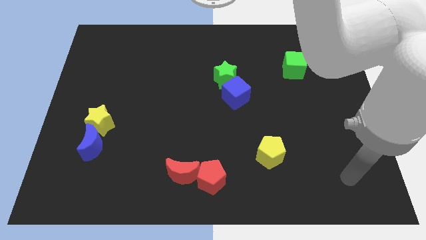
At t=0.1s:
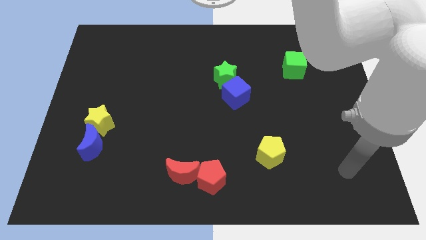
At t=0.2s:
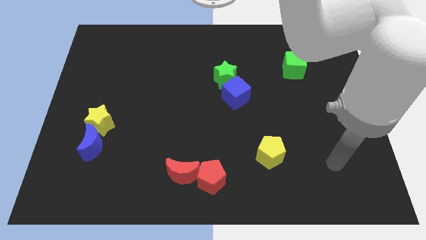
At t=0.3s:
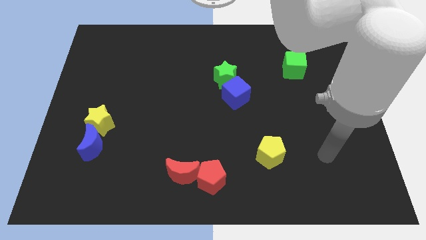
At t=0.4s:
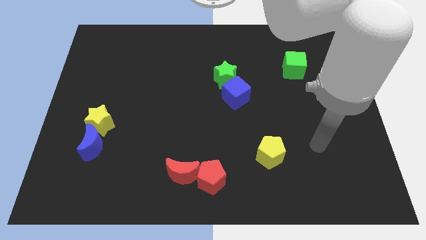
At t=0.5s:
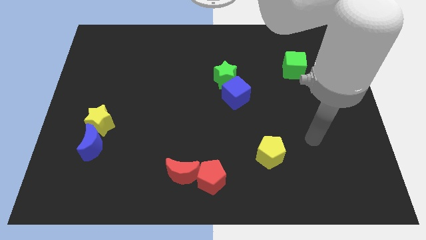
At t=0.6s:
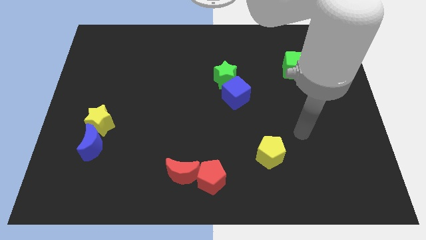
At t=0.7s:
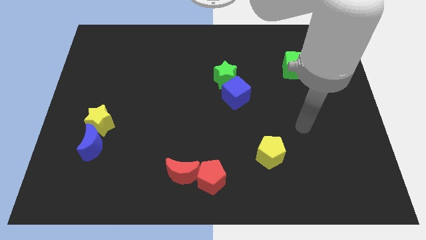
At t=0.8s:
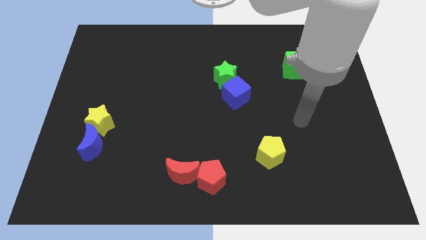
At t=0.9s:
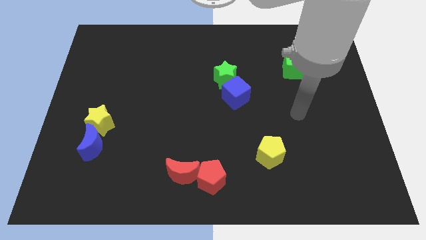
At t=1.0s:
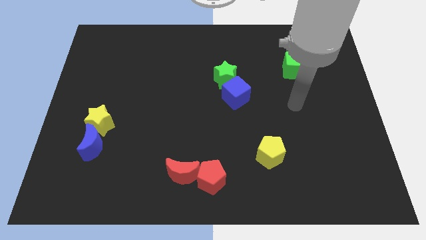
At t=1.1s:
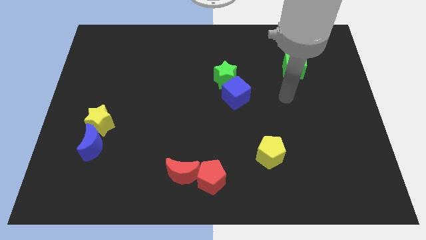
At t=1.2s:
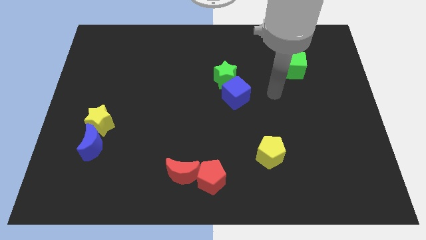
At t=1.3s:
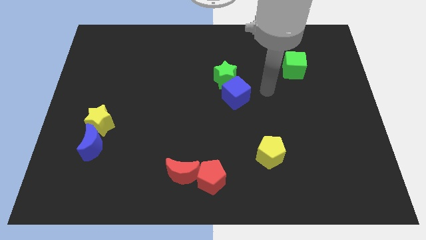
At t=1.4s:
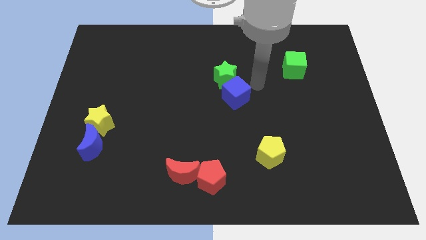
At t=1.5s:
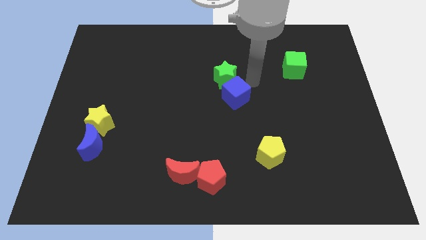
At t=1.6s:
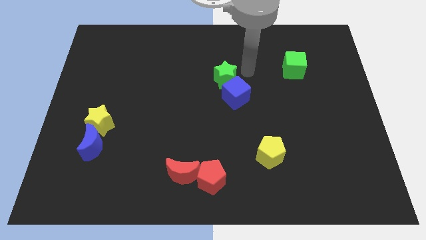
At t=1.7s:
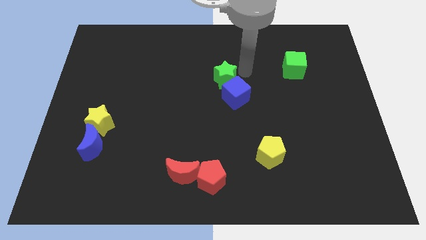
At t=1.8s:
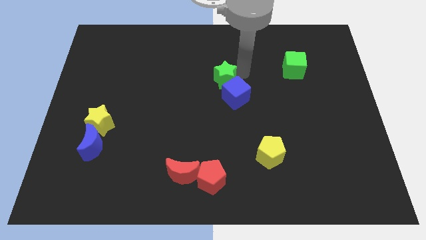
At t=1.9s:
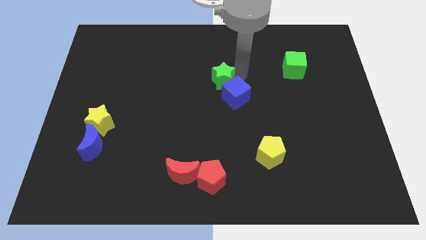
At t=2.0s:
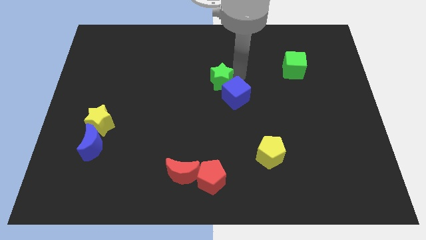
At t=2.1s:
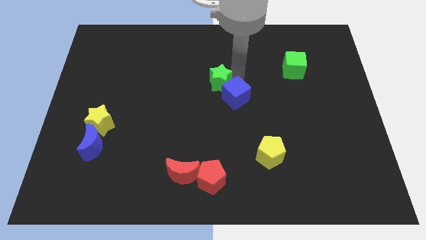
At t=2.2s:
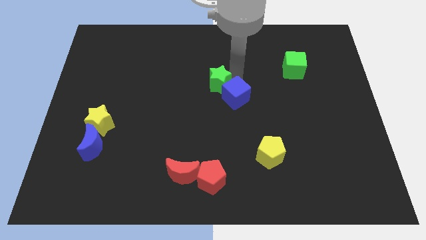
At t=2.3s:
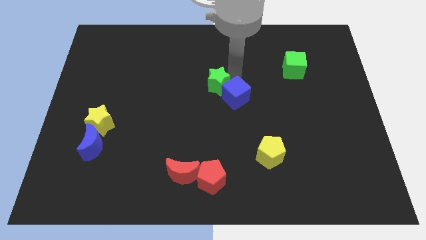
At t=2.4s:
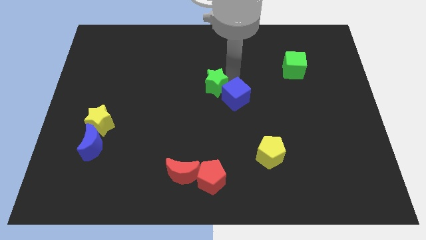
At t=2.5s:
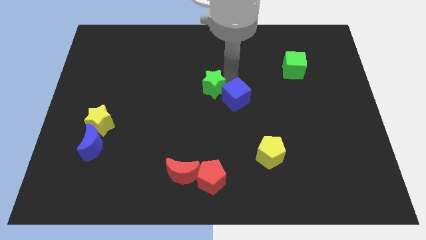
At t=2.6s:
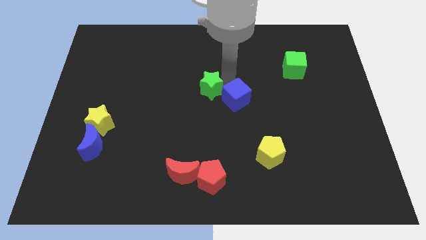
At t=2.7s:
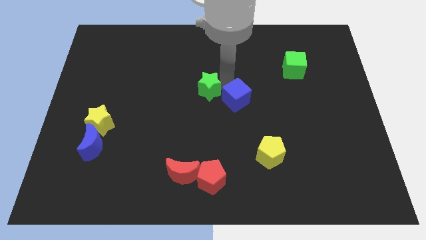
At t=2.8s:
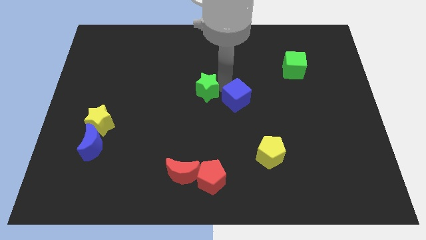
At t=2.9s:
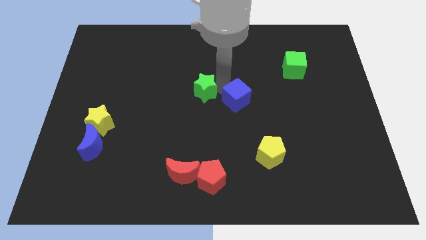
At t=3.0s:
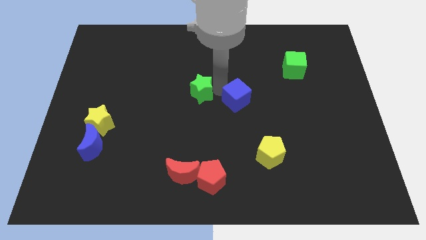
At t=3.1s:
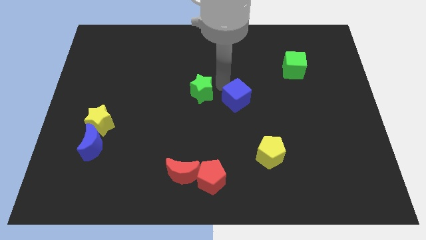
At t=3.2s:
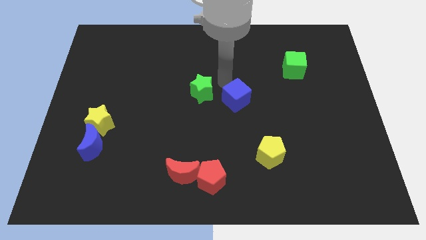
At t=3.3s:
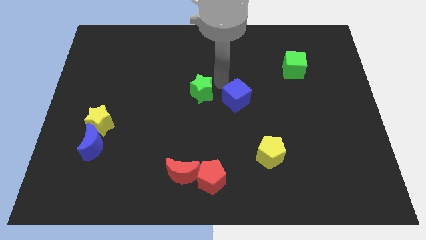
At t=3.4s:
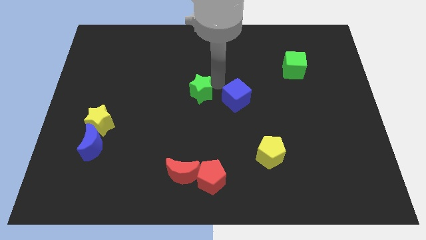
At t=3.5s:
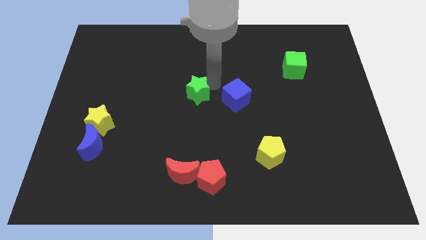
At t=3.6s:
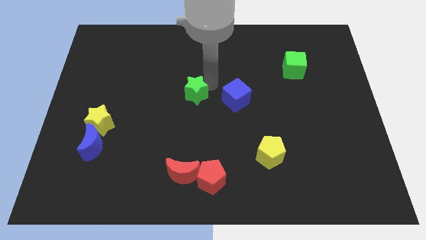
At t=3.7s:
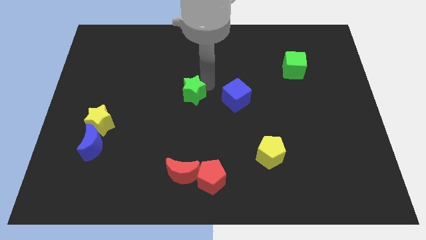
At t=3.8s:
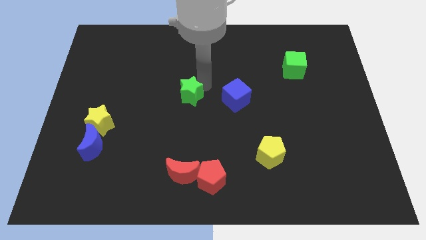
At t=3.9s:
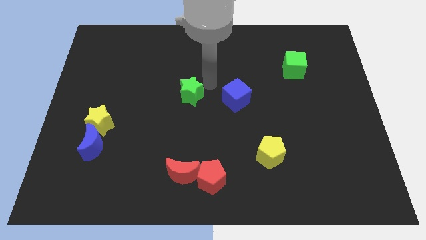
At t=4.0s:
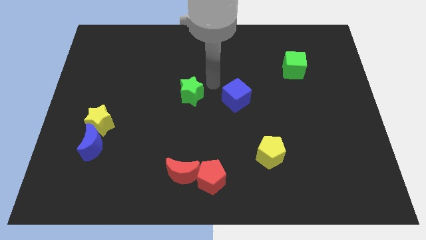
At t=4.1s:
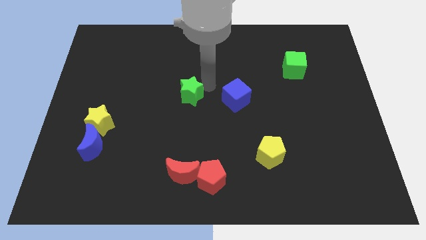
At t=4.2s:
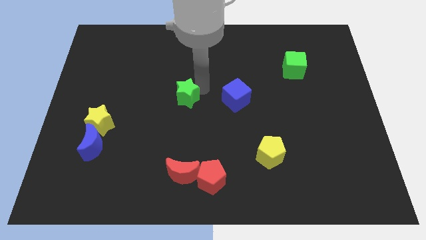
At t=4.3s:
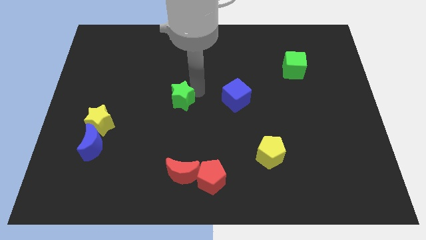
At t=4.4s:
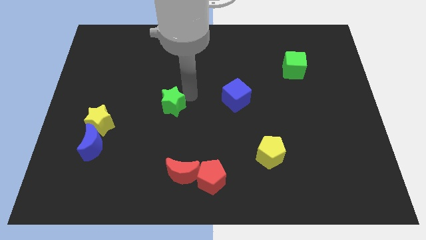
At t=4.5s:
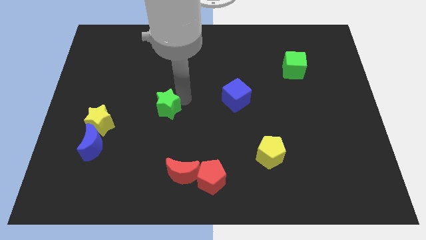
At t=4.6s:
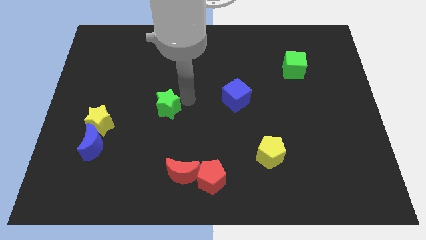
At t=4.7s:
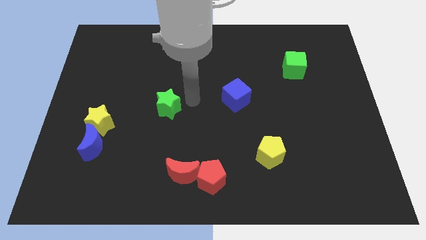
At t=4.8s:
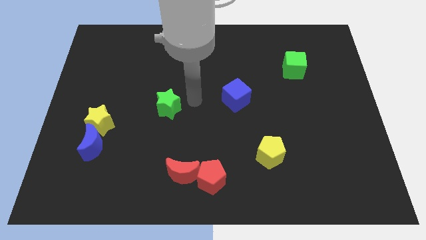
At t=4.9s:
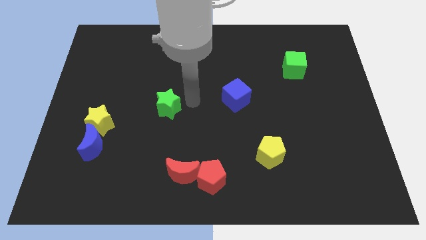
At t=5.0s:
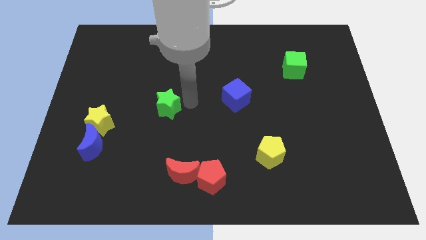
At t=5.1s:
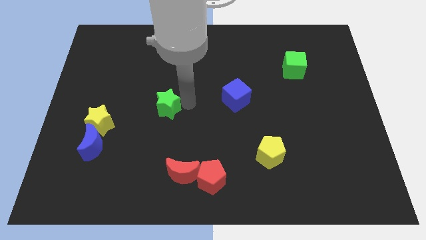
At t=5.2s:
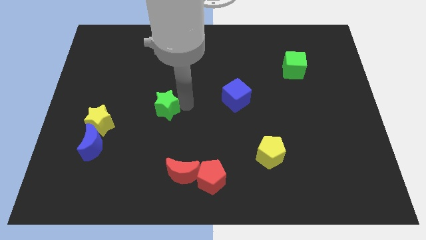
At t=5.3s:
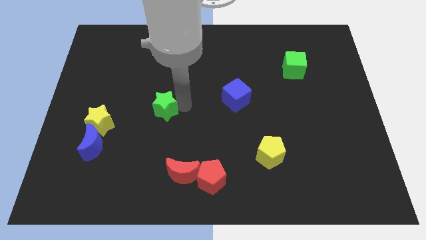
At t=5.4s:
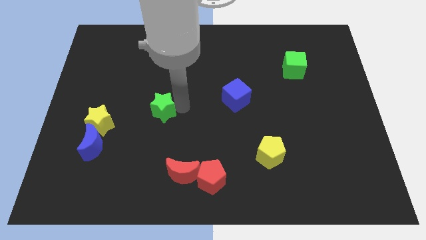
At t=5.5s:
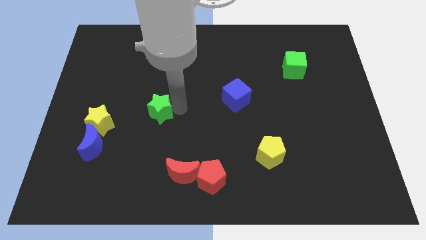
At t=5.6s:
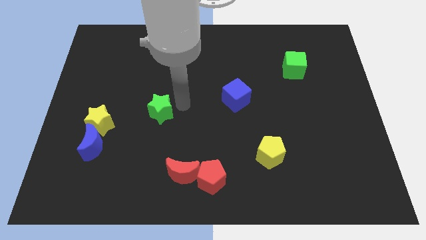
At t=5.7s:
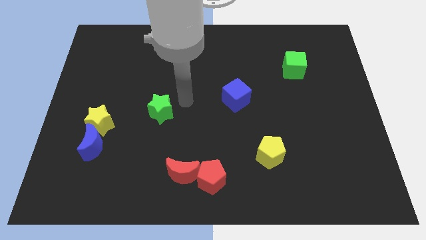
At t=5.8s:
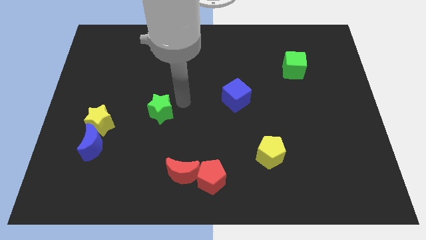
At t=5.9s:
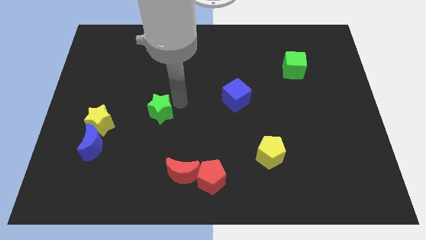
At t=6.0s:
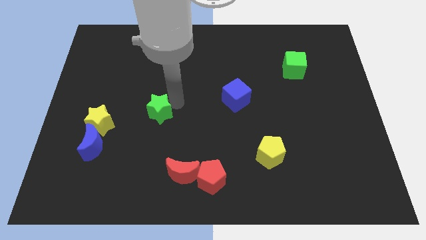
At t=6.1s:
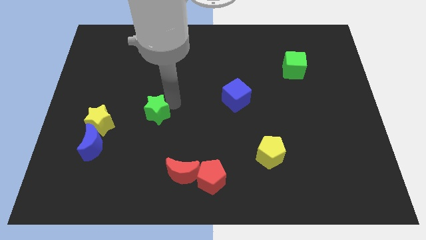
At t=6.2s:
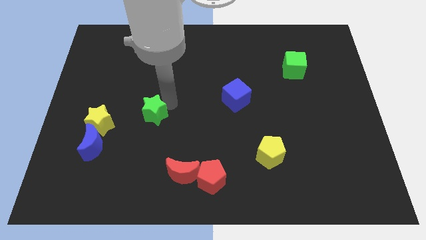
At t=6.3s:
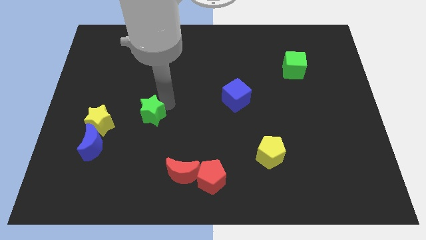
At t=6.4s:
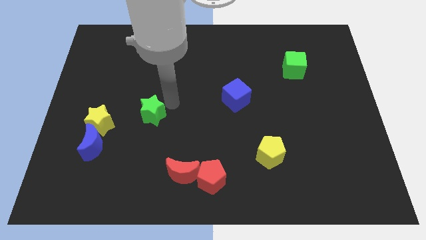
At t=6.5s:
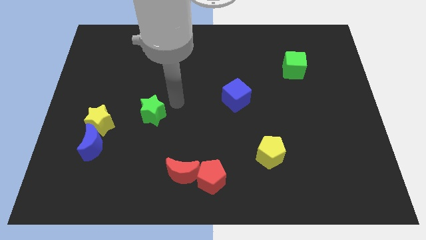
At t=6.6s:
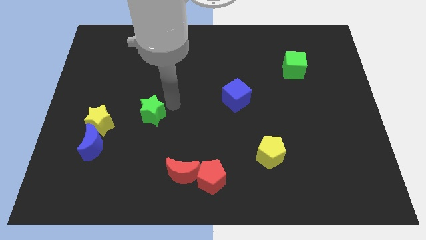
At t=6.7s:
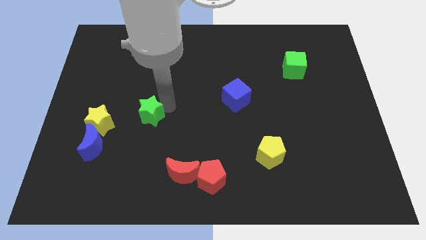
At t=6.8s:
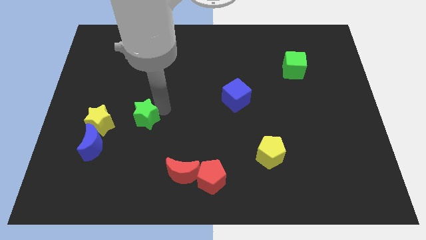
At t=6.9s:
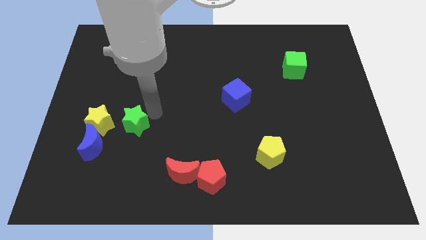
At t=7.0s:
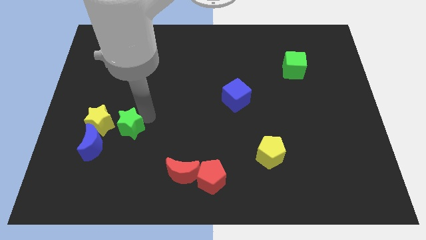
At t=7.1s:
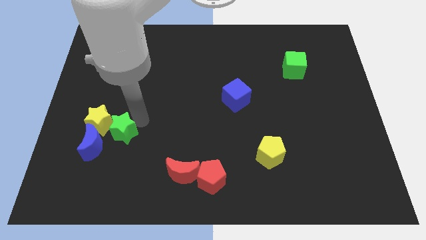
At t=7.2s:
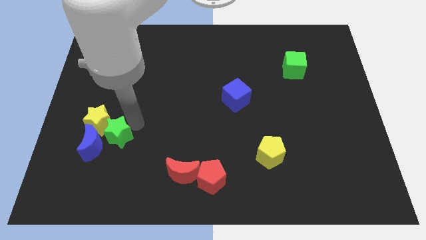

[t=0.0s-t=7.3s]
move the green star next to the blue moon

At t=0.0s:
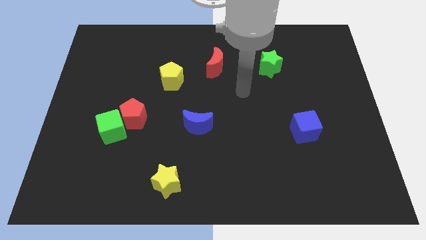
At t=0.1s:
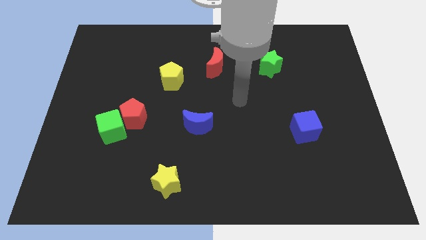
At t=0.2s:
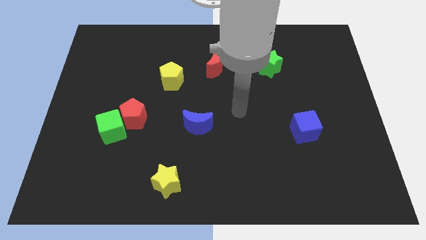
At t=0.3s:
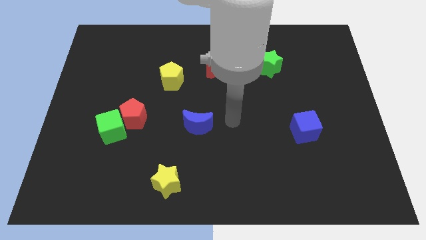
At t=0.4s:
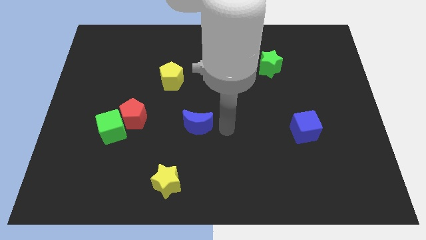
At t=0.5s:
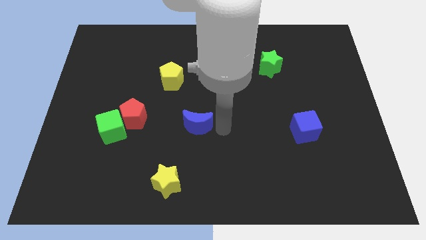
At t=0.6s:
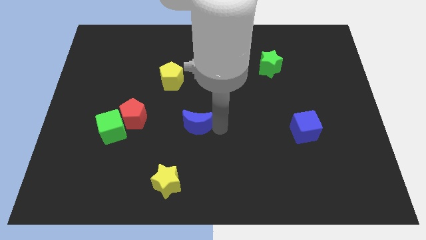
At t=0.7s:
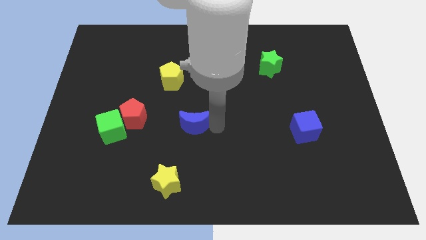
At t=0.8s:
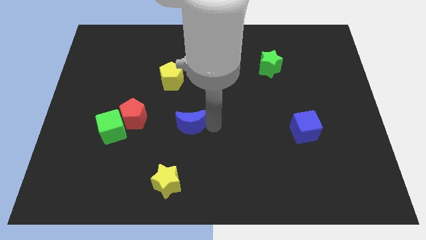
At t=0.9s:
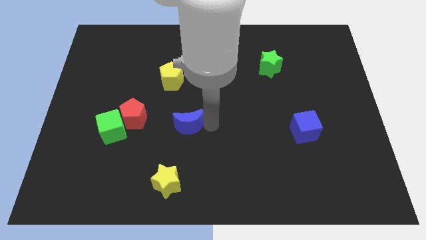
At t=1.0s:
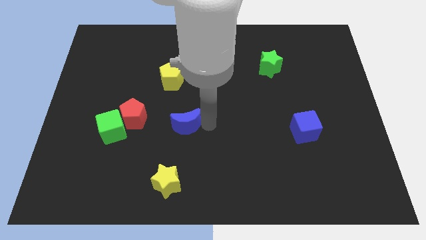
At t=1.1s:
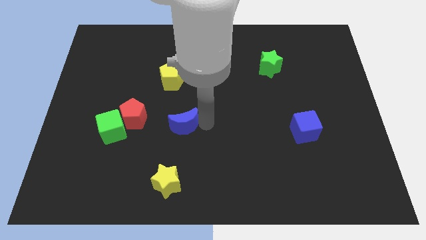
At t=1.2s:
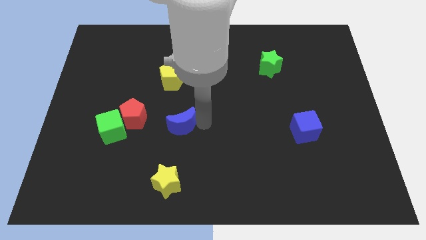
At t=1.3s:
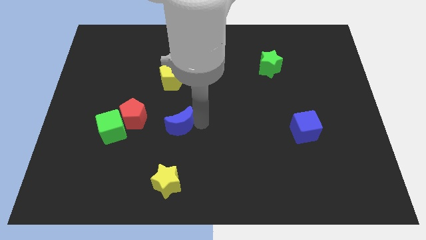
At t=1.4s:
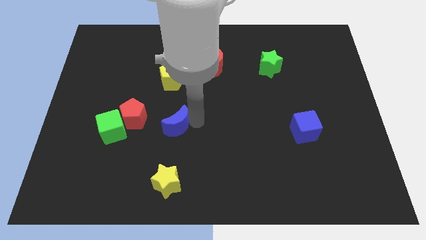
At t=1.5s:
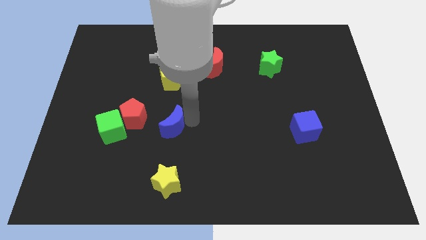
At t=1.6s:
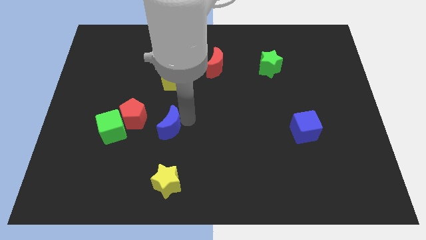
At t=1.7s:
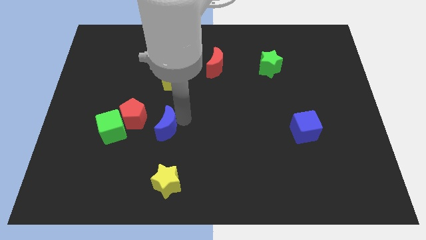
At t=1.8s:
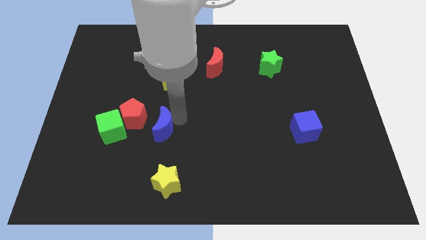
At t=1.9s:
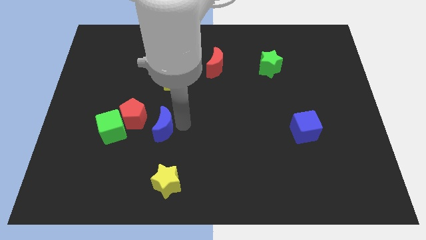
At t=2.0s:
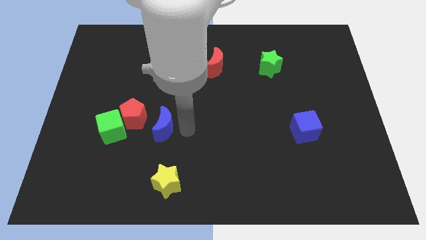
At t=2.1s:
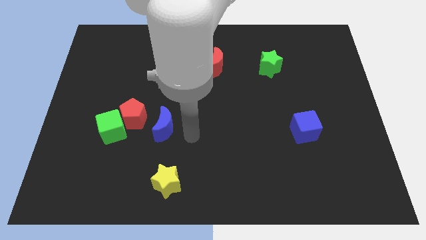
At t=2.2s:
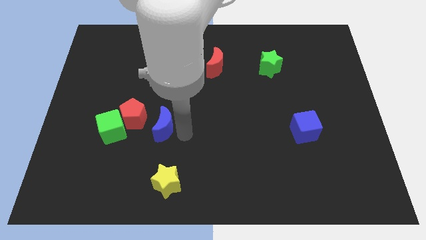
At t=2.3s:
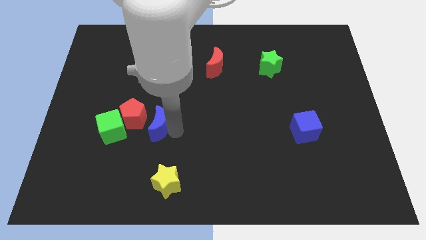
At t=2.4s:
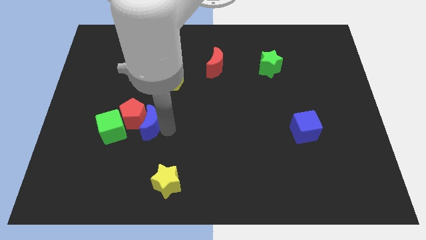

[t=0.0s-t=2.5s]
move the blue moon towards the red pentagon
